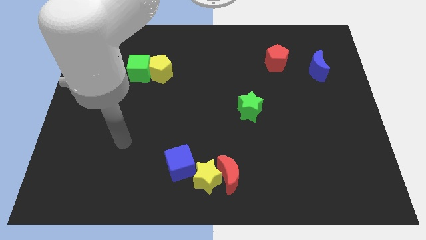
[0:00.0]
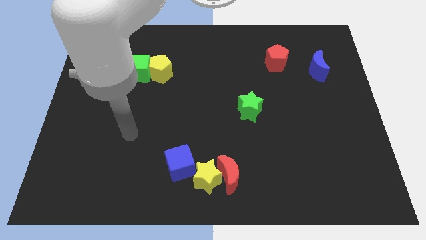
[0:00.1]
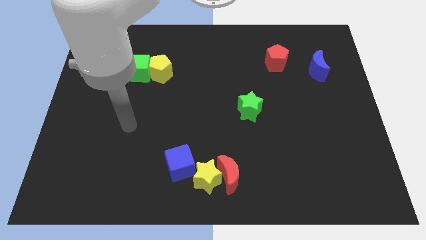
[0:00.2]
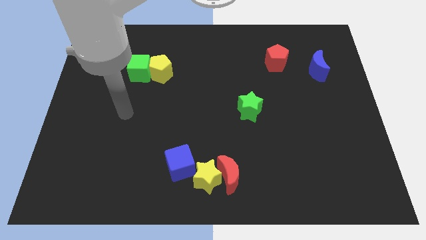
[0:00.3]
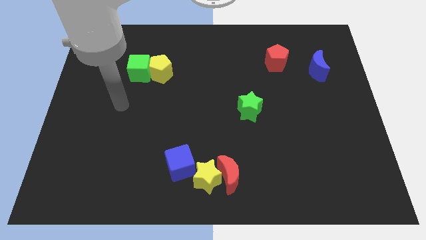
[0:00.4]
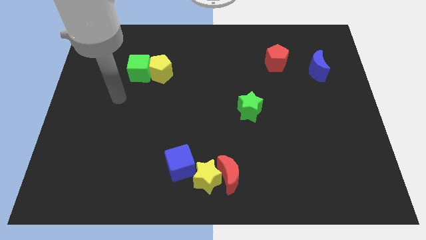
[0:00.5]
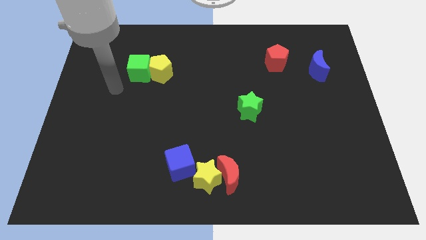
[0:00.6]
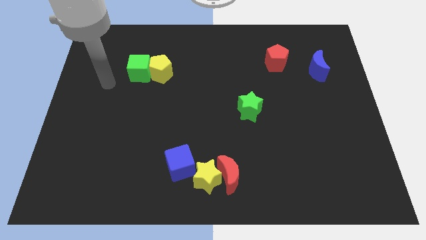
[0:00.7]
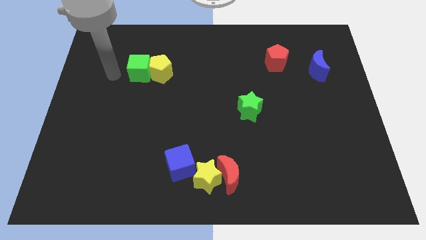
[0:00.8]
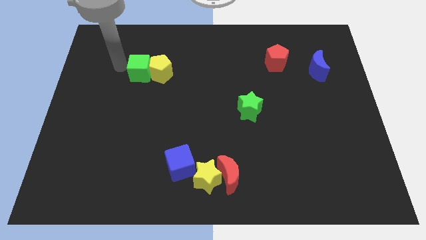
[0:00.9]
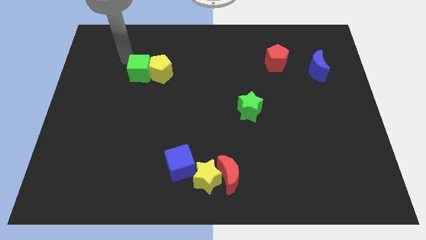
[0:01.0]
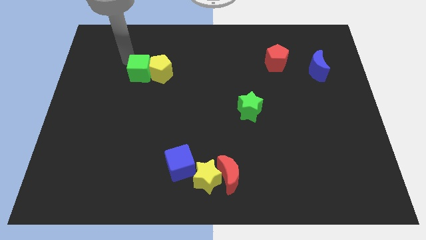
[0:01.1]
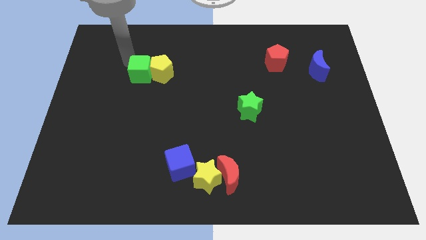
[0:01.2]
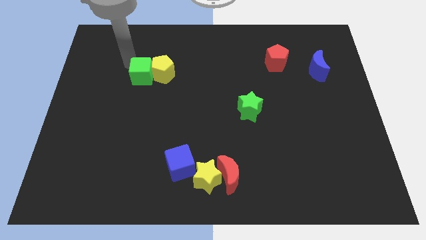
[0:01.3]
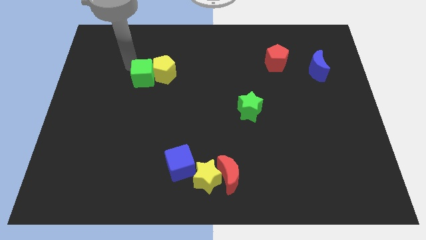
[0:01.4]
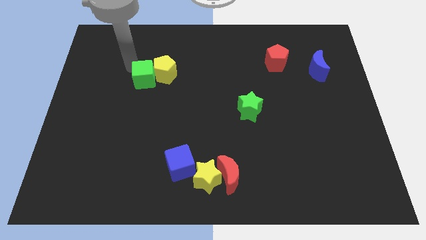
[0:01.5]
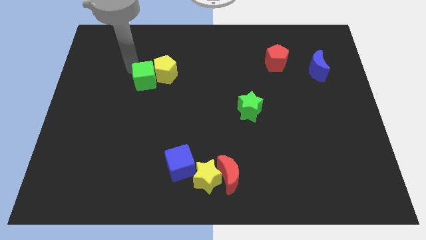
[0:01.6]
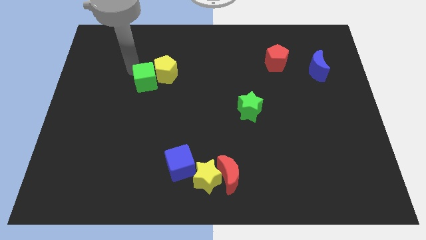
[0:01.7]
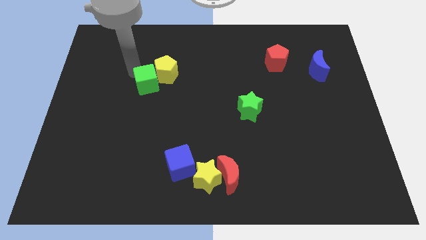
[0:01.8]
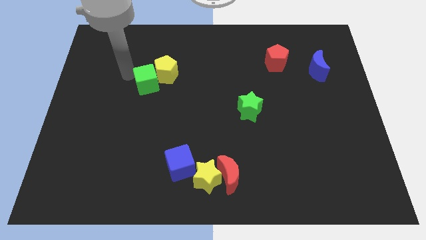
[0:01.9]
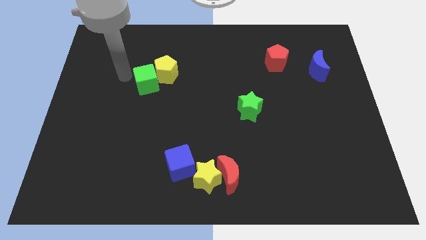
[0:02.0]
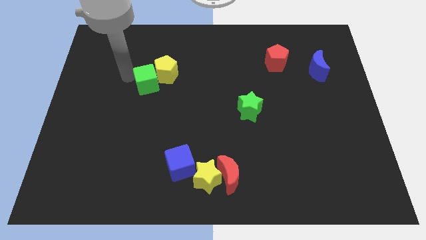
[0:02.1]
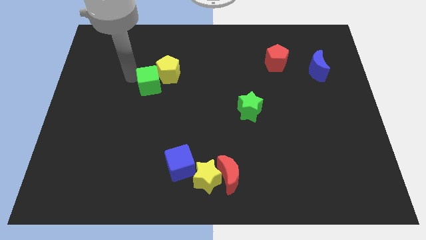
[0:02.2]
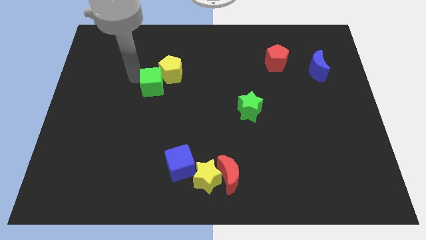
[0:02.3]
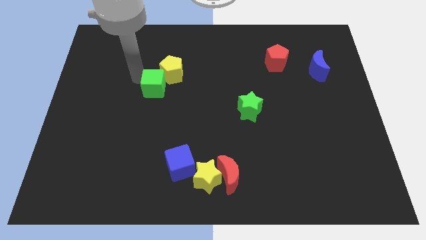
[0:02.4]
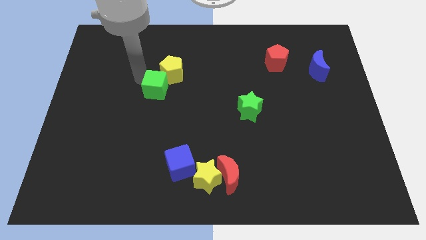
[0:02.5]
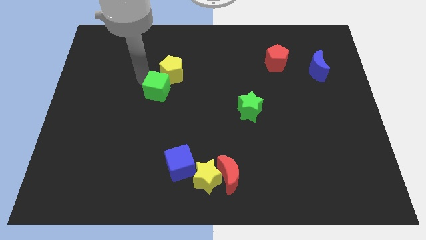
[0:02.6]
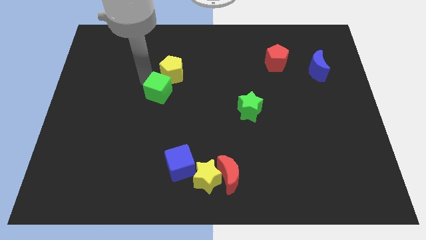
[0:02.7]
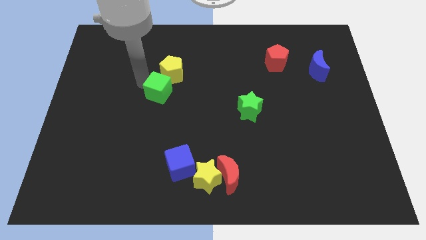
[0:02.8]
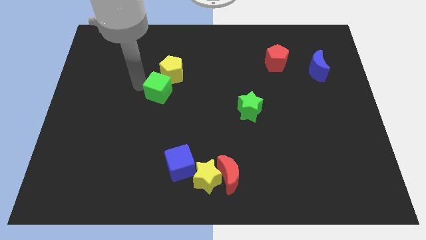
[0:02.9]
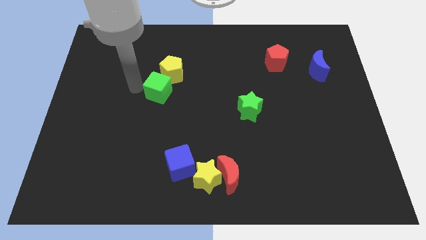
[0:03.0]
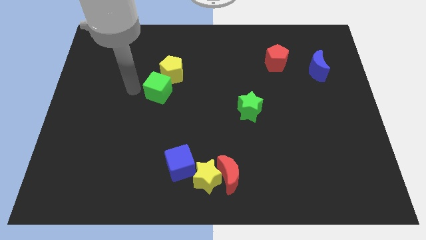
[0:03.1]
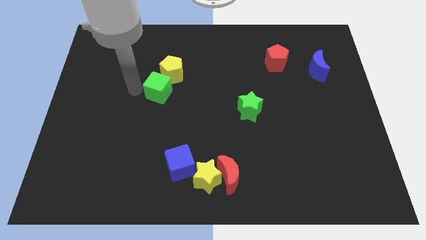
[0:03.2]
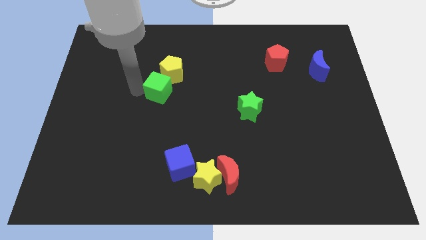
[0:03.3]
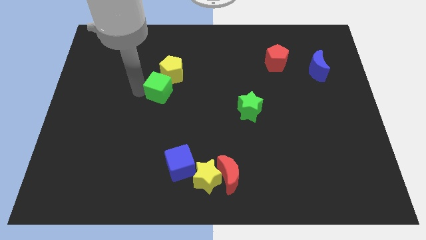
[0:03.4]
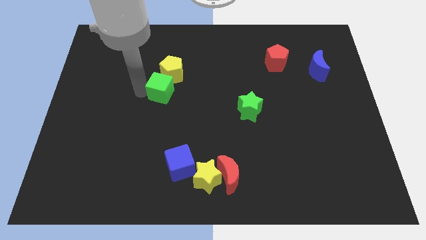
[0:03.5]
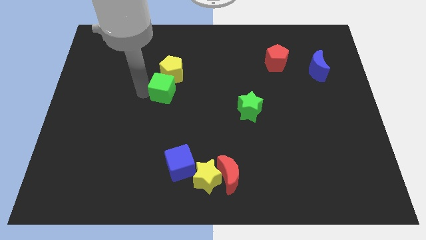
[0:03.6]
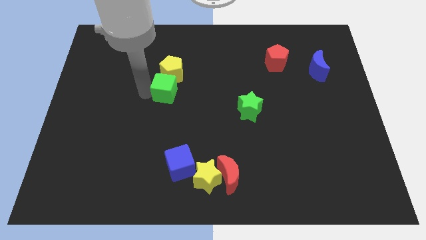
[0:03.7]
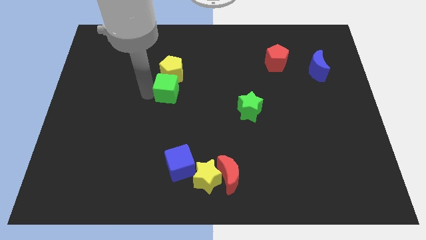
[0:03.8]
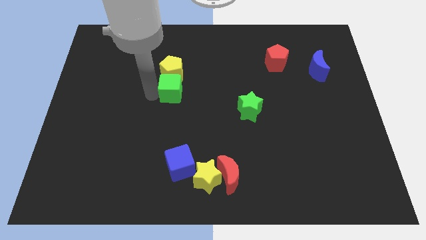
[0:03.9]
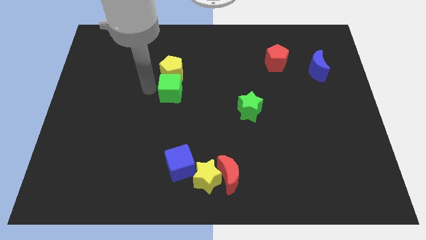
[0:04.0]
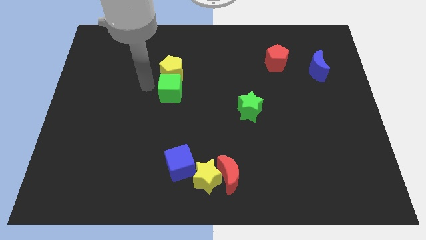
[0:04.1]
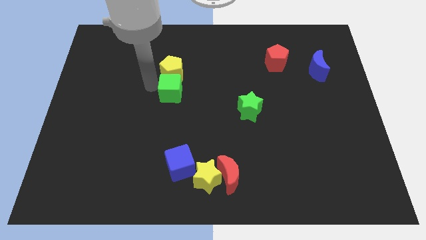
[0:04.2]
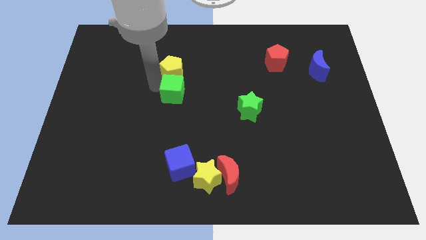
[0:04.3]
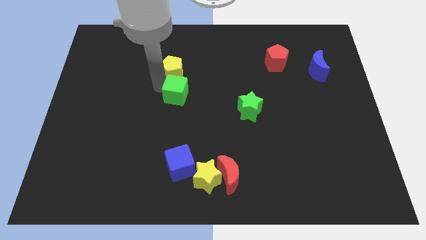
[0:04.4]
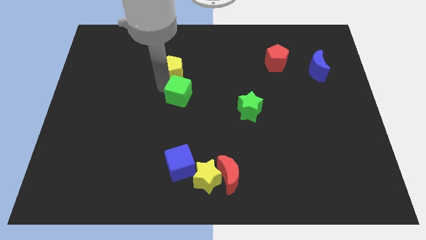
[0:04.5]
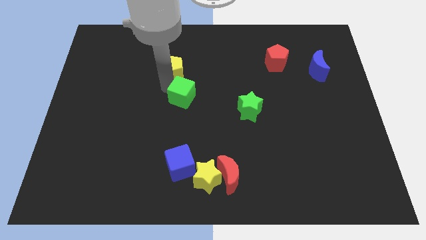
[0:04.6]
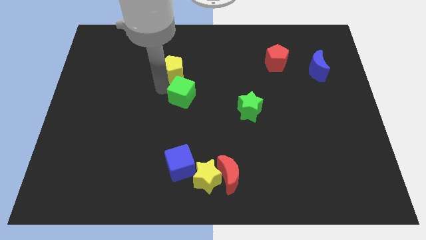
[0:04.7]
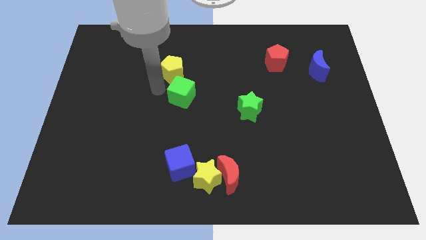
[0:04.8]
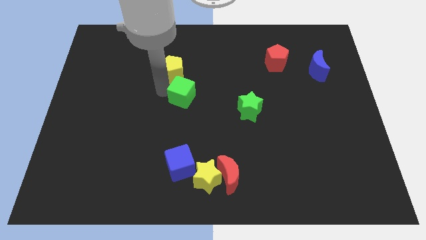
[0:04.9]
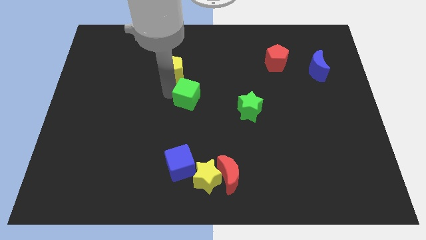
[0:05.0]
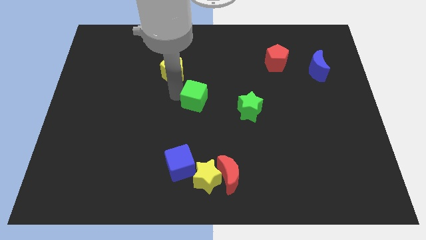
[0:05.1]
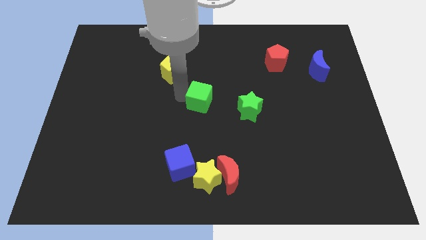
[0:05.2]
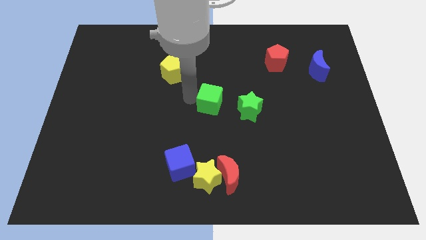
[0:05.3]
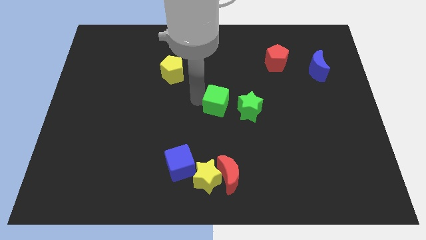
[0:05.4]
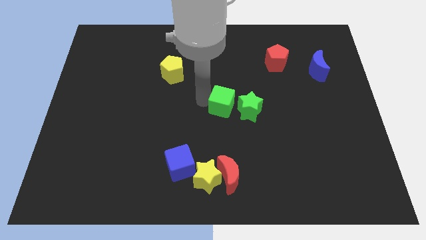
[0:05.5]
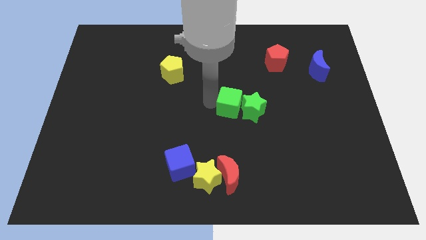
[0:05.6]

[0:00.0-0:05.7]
put the green cube to the green star

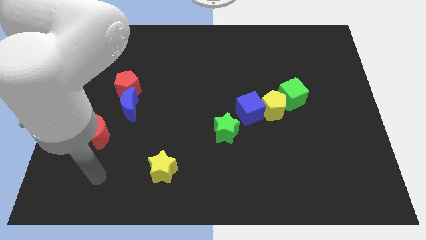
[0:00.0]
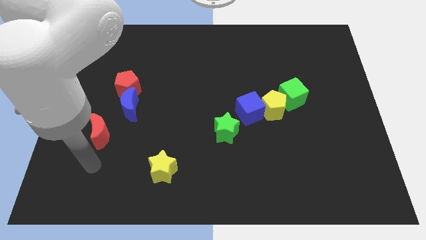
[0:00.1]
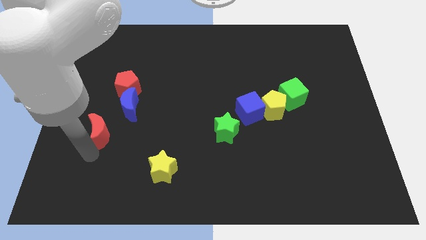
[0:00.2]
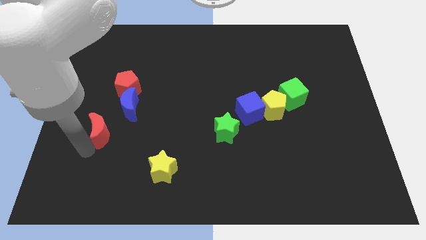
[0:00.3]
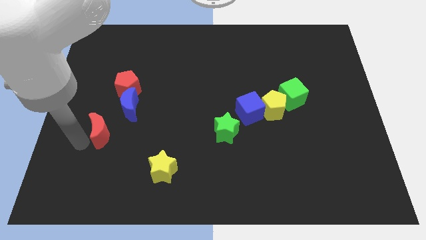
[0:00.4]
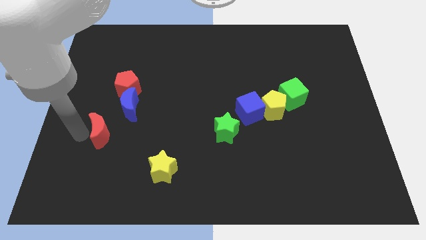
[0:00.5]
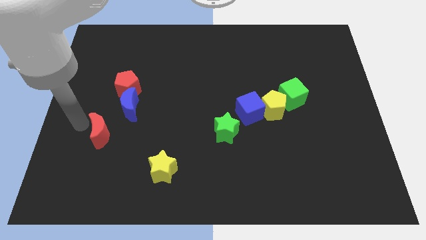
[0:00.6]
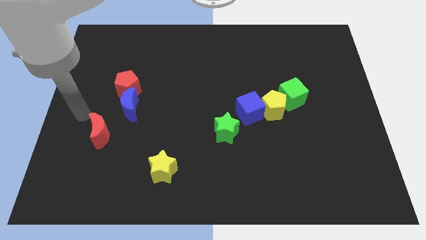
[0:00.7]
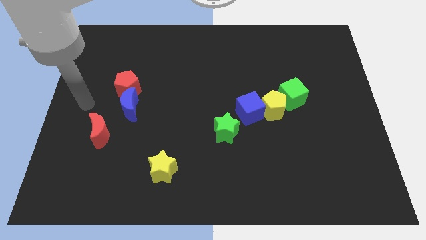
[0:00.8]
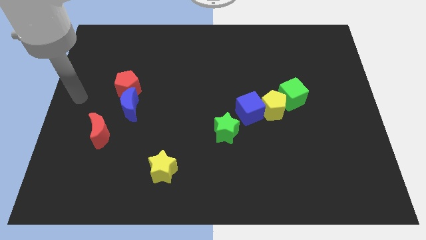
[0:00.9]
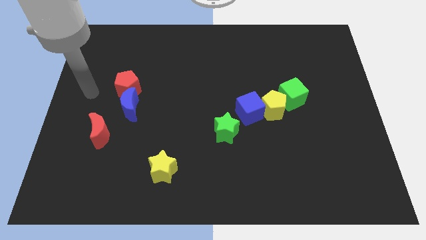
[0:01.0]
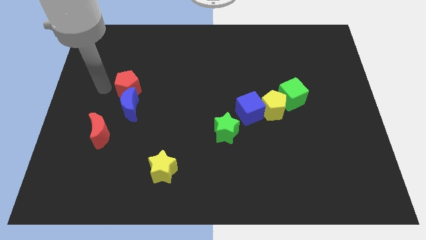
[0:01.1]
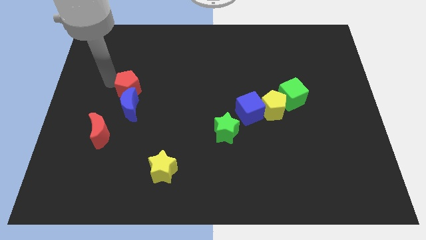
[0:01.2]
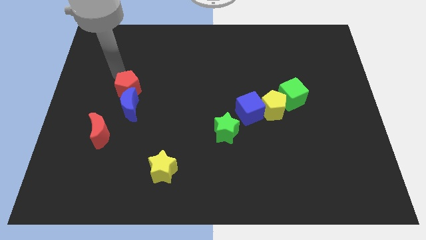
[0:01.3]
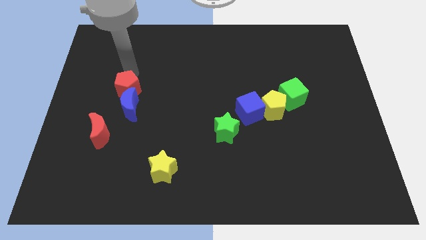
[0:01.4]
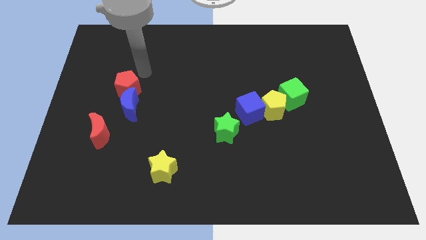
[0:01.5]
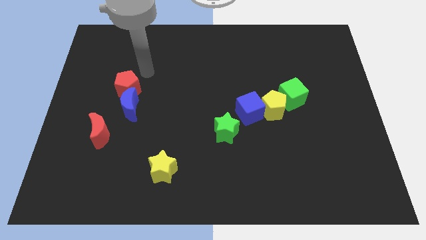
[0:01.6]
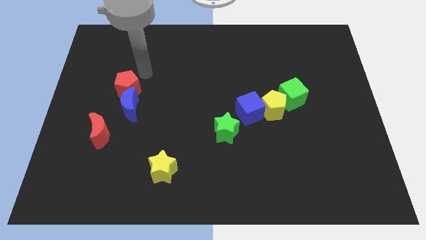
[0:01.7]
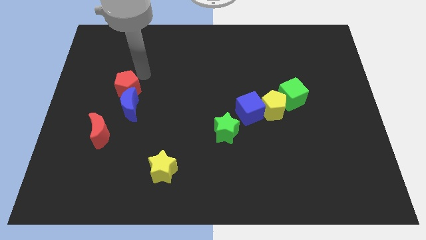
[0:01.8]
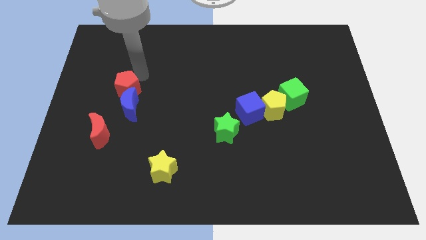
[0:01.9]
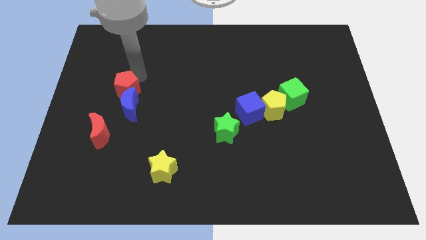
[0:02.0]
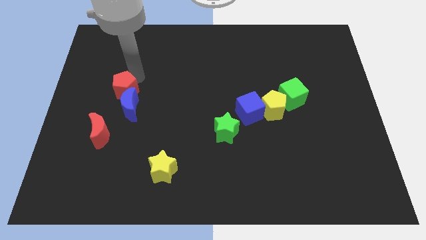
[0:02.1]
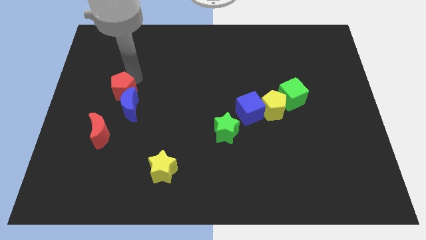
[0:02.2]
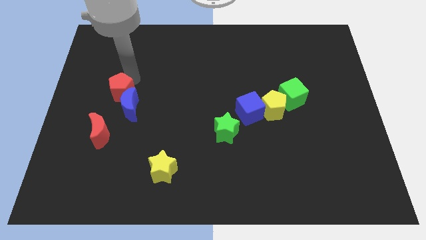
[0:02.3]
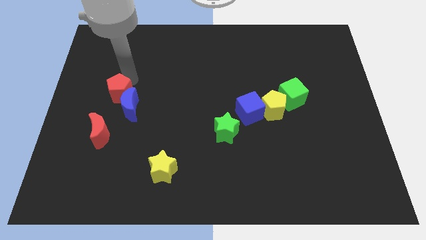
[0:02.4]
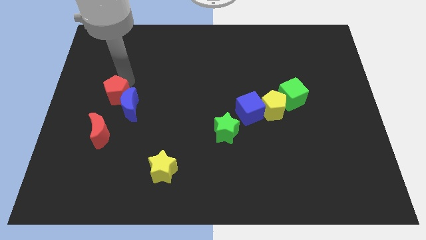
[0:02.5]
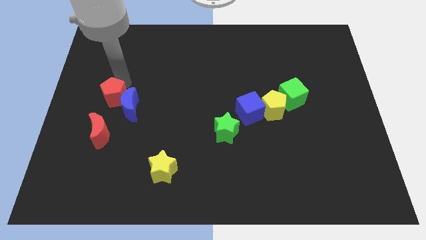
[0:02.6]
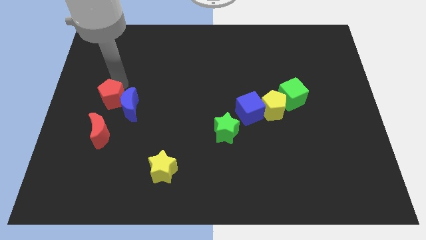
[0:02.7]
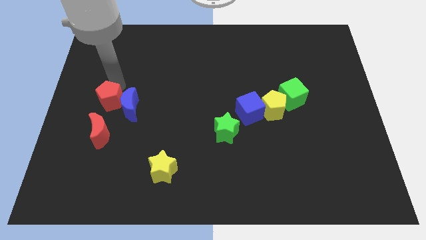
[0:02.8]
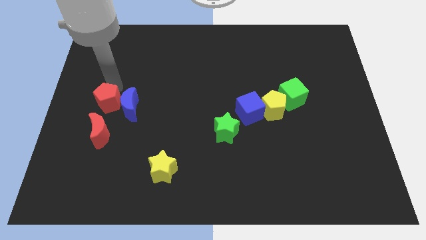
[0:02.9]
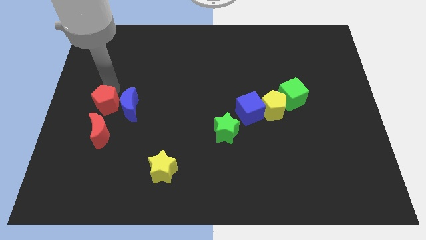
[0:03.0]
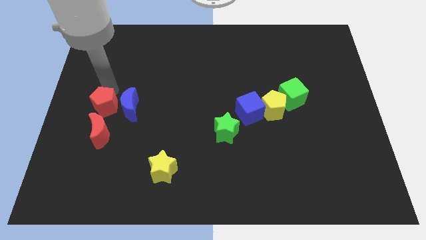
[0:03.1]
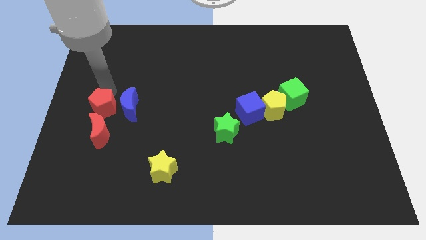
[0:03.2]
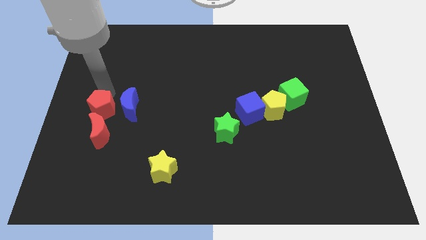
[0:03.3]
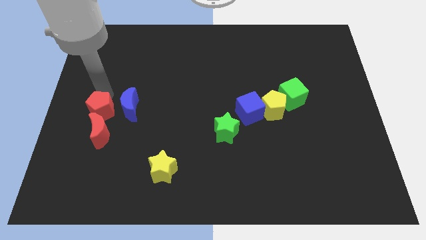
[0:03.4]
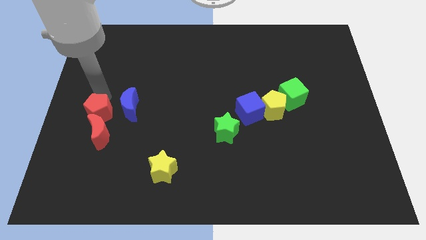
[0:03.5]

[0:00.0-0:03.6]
move the red pentagon towards the red moon
